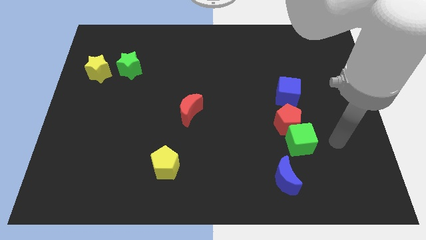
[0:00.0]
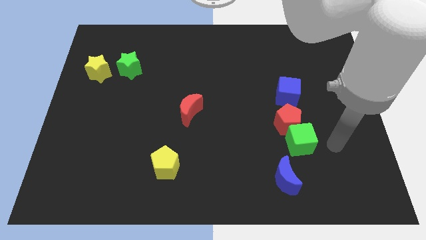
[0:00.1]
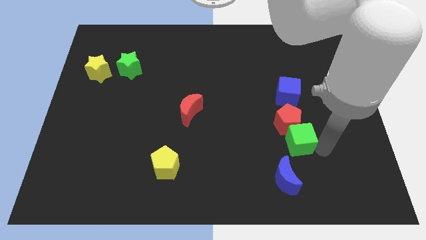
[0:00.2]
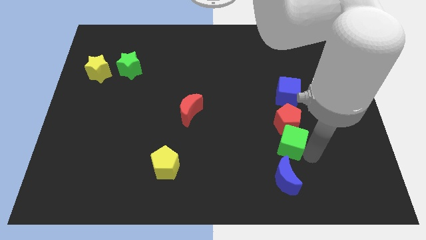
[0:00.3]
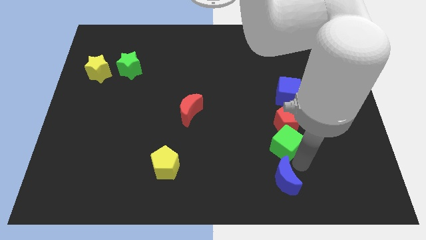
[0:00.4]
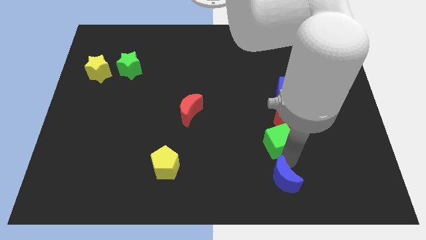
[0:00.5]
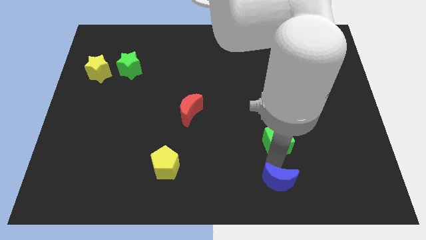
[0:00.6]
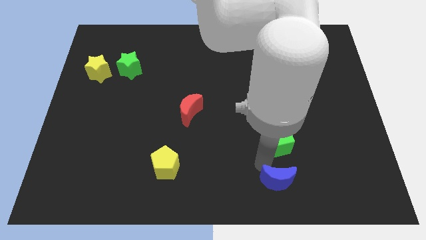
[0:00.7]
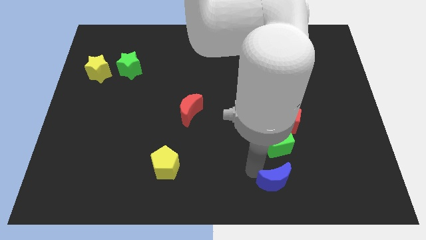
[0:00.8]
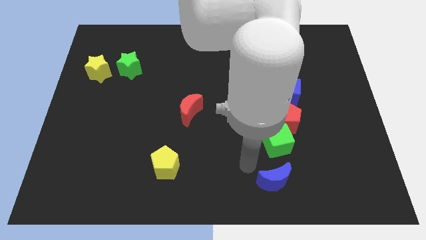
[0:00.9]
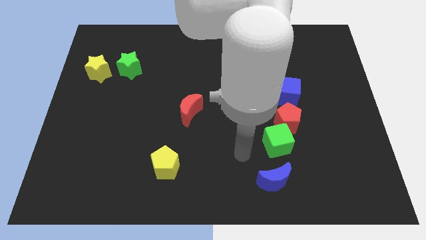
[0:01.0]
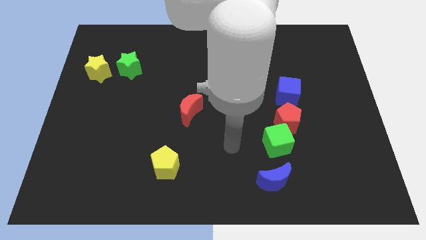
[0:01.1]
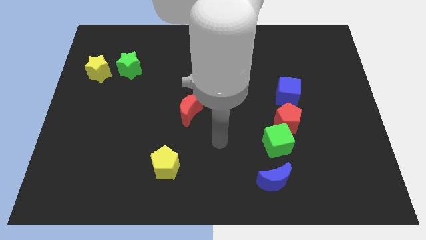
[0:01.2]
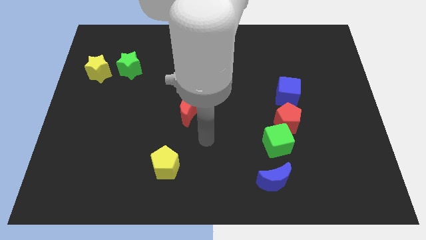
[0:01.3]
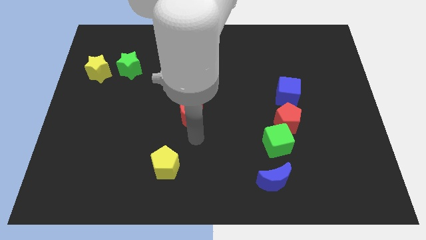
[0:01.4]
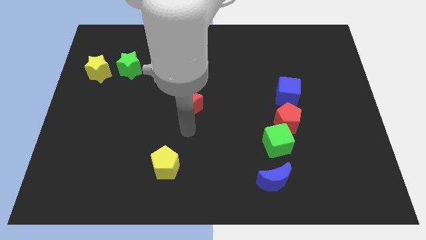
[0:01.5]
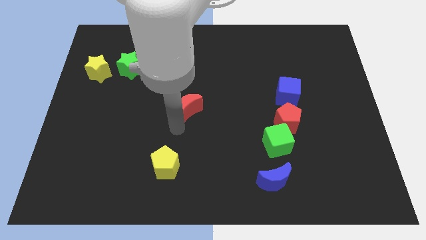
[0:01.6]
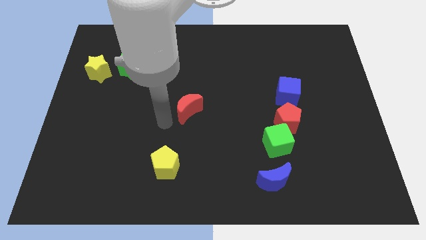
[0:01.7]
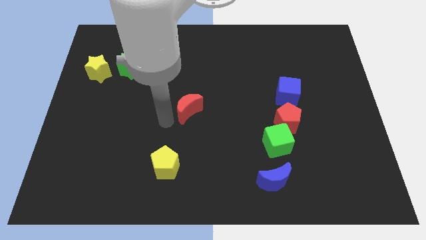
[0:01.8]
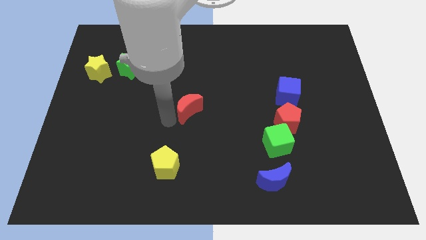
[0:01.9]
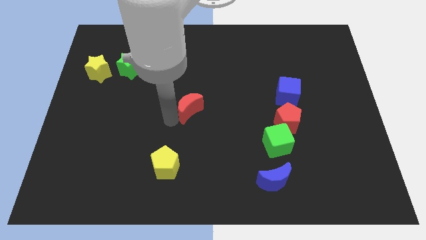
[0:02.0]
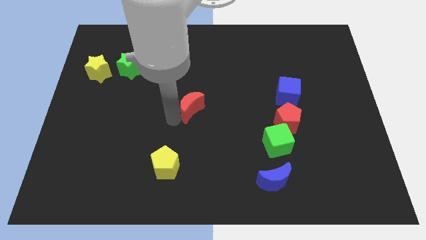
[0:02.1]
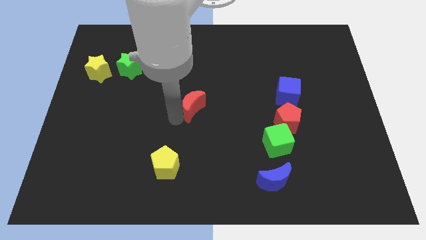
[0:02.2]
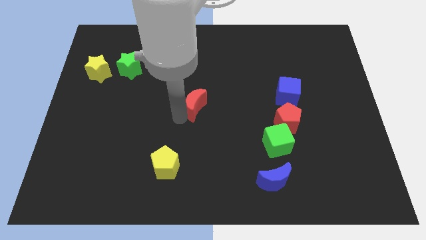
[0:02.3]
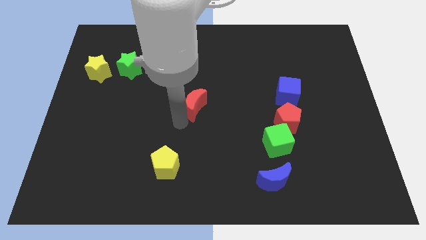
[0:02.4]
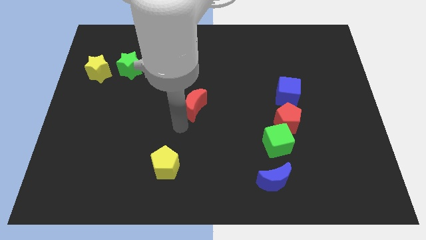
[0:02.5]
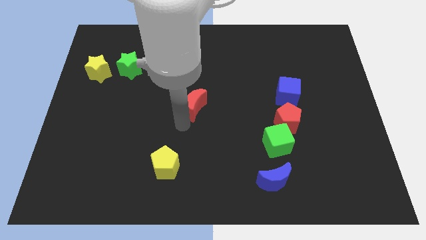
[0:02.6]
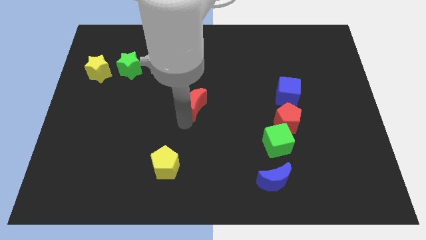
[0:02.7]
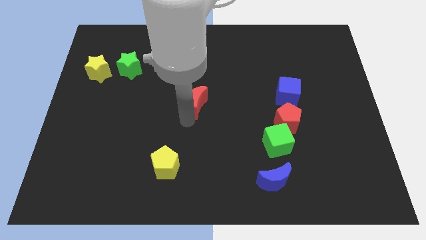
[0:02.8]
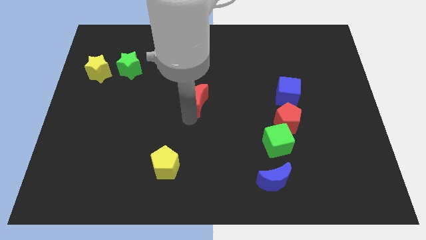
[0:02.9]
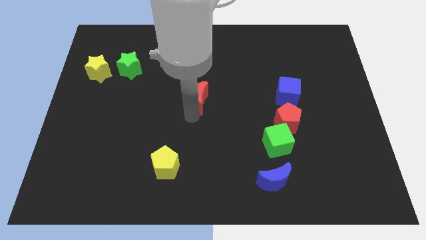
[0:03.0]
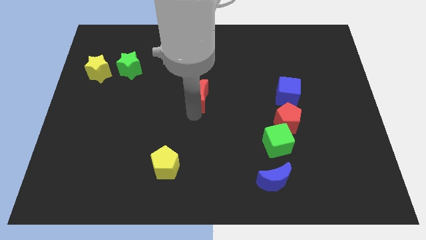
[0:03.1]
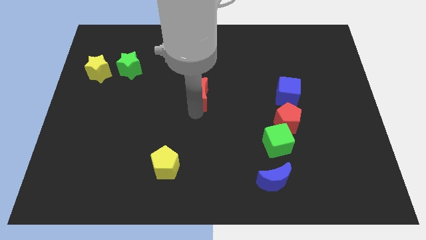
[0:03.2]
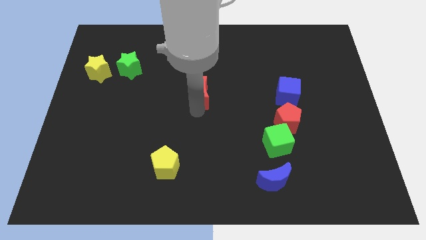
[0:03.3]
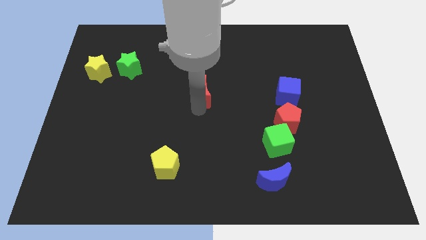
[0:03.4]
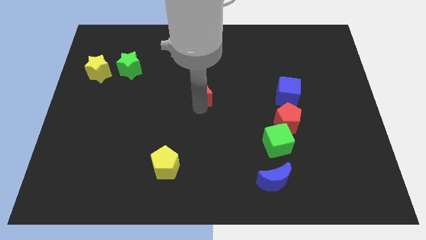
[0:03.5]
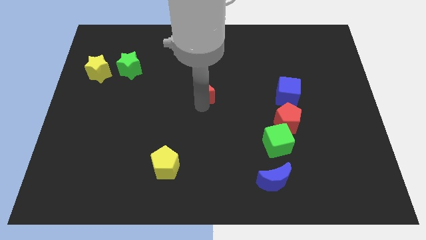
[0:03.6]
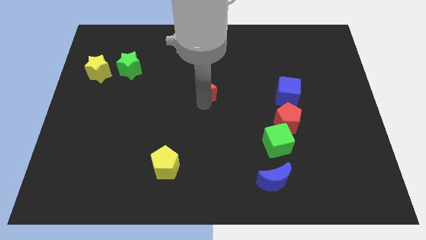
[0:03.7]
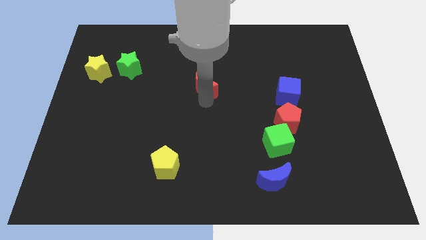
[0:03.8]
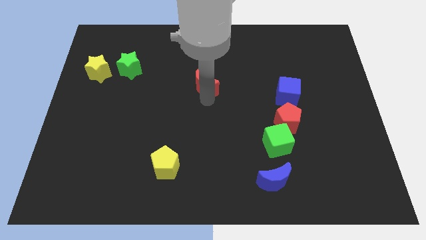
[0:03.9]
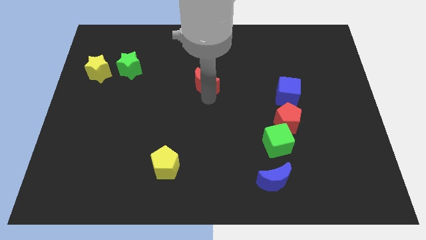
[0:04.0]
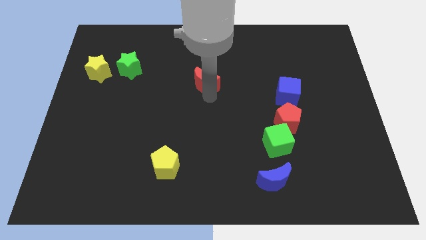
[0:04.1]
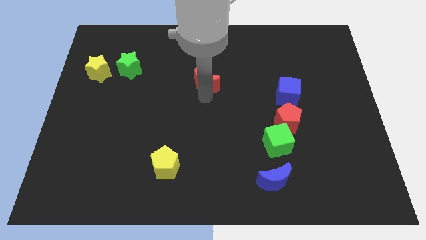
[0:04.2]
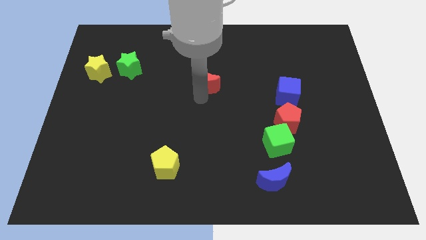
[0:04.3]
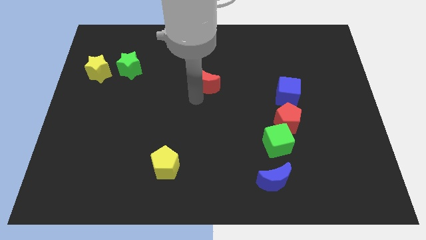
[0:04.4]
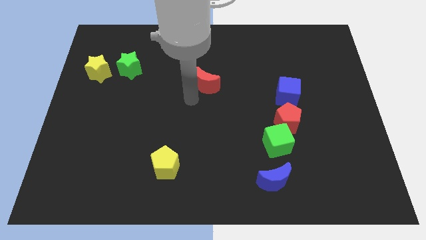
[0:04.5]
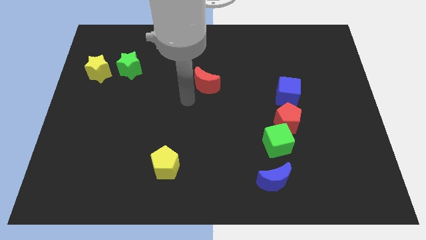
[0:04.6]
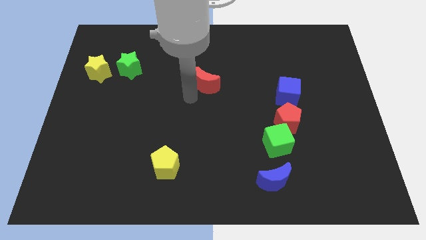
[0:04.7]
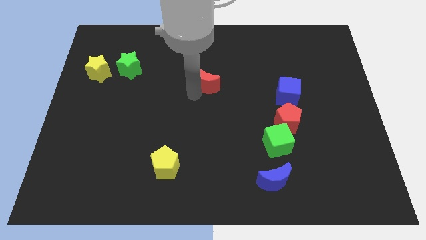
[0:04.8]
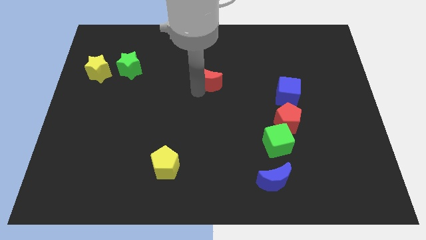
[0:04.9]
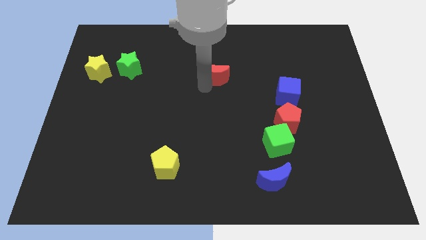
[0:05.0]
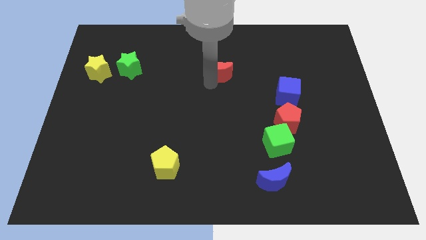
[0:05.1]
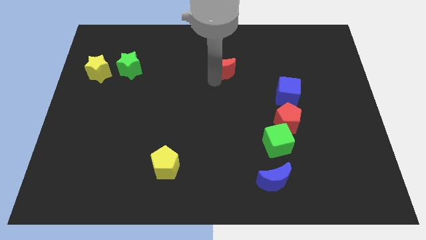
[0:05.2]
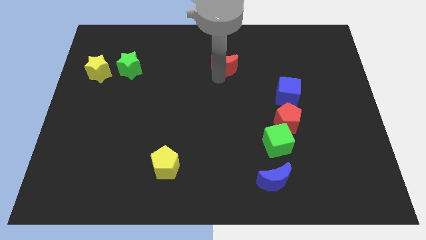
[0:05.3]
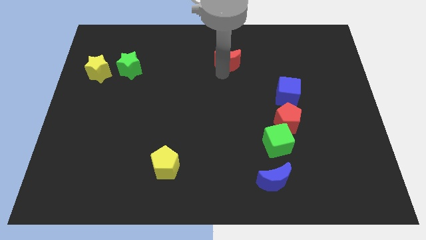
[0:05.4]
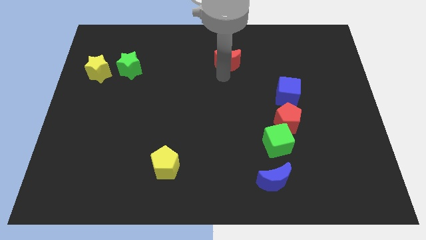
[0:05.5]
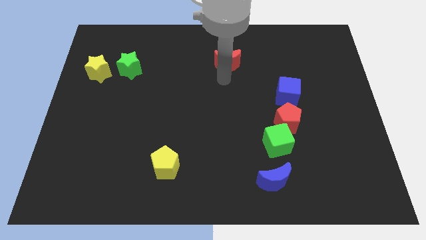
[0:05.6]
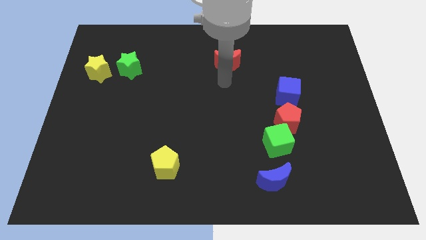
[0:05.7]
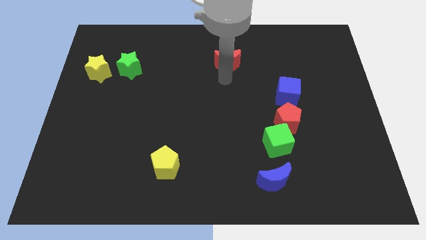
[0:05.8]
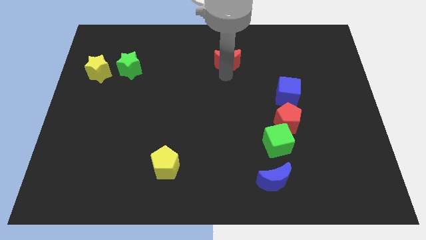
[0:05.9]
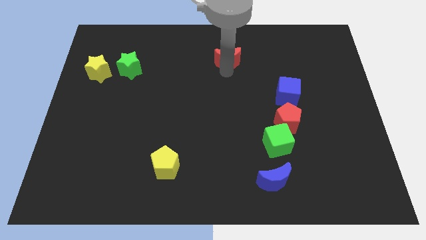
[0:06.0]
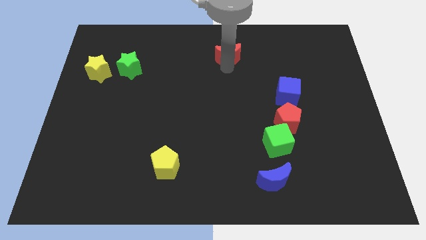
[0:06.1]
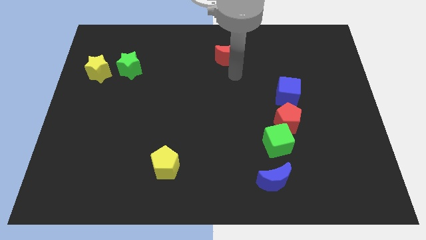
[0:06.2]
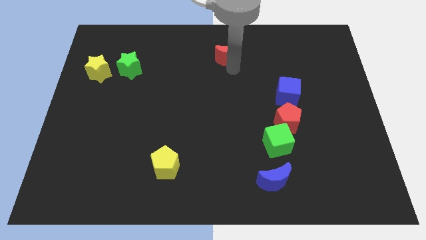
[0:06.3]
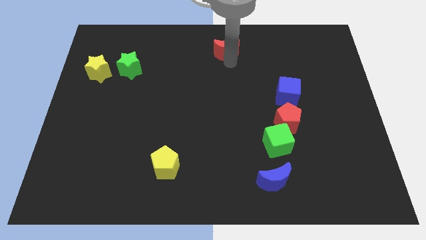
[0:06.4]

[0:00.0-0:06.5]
slide the red moon to the top side

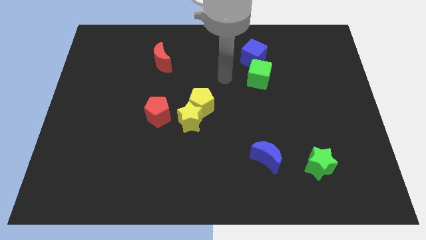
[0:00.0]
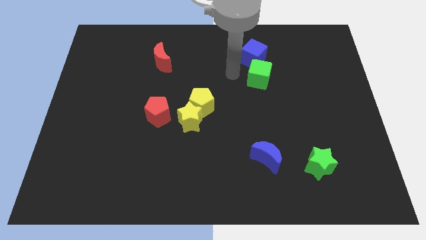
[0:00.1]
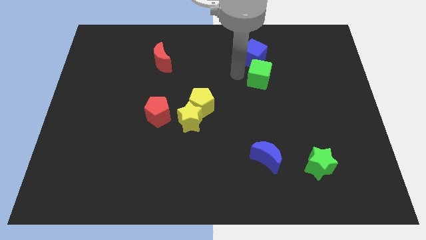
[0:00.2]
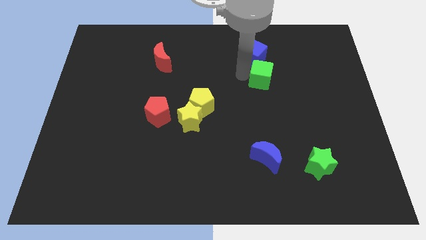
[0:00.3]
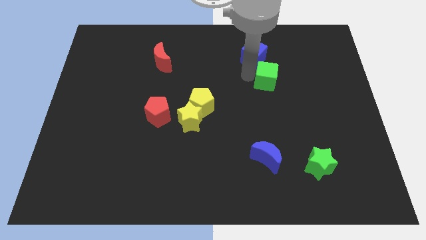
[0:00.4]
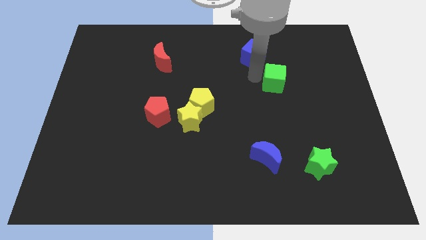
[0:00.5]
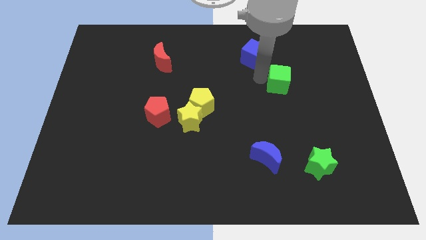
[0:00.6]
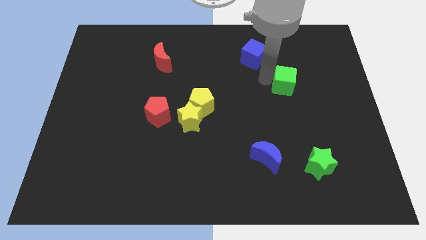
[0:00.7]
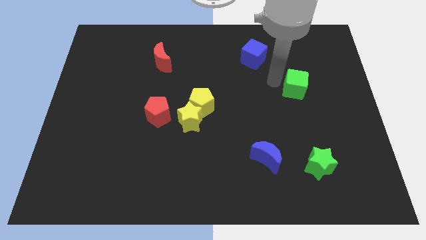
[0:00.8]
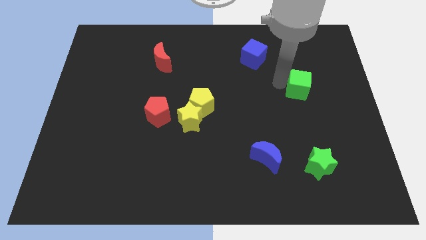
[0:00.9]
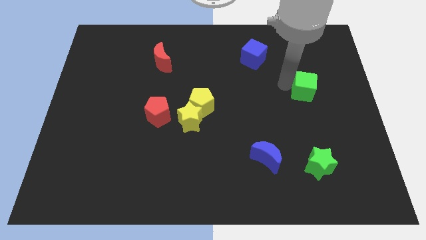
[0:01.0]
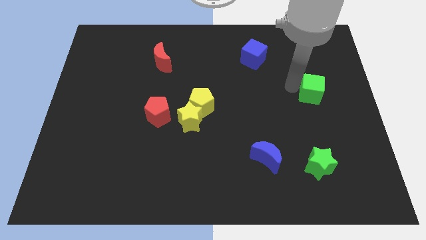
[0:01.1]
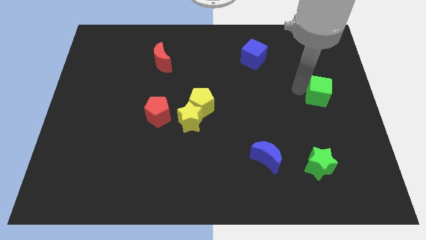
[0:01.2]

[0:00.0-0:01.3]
push the green cube to the right side
